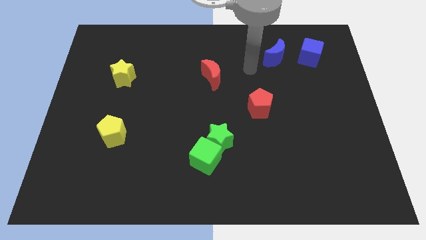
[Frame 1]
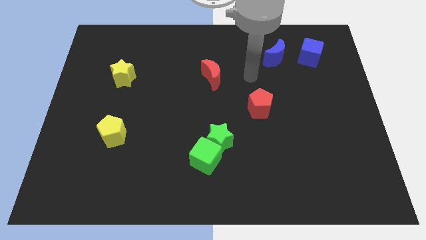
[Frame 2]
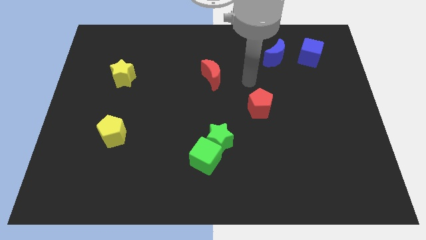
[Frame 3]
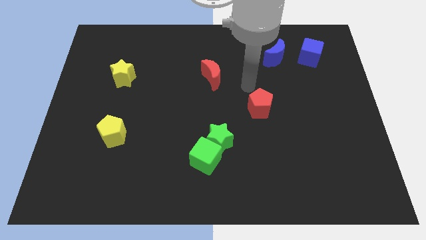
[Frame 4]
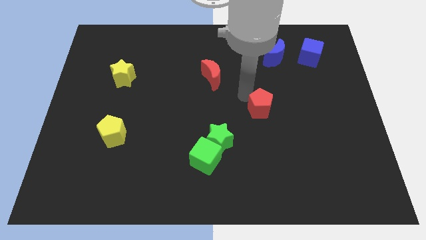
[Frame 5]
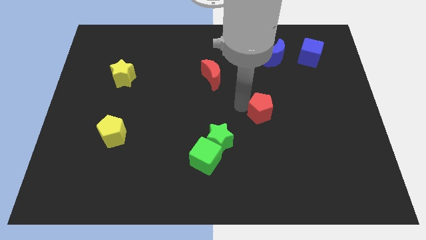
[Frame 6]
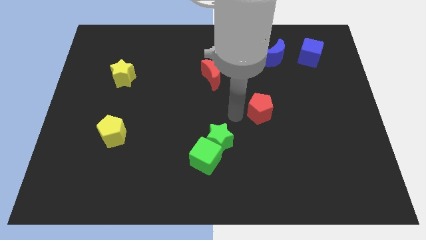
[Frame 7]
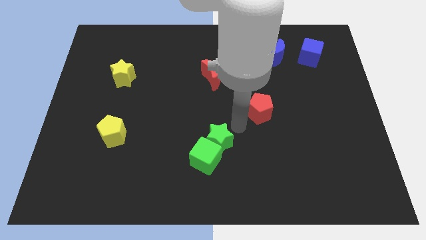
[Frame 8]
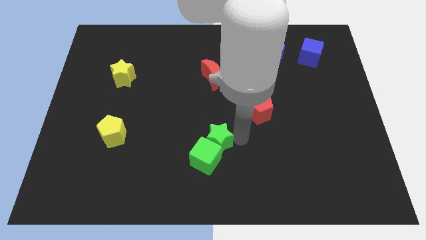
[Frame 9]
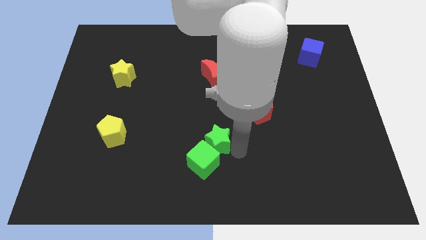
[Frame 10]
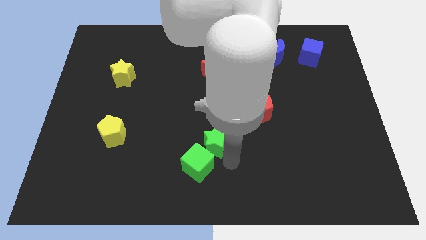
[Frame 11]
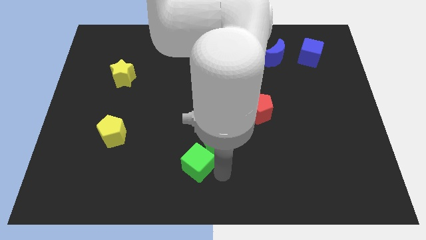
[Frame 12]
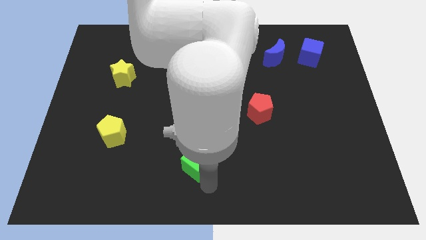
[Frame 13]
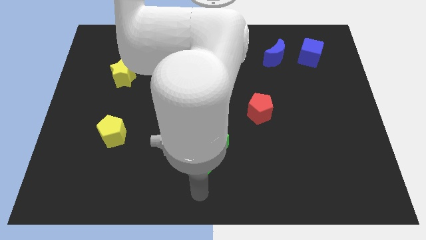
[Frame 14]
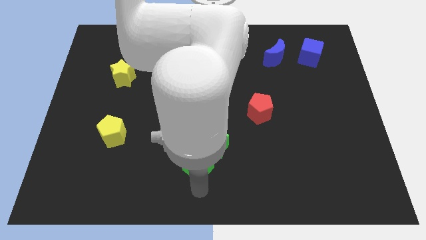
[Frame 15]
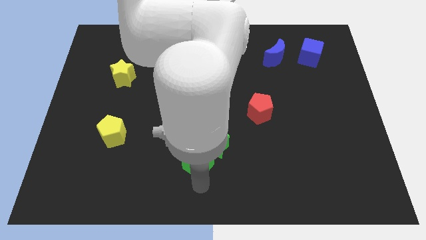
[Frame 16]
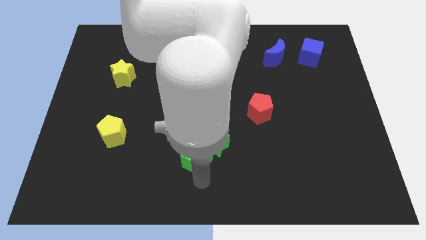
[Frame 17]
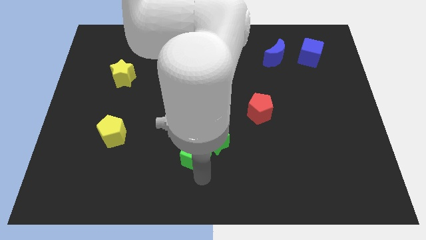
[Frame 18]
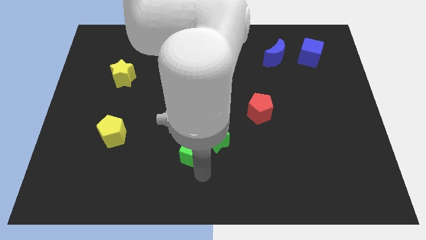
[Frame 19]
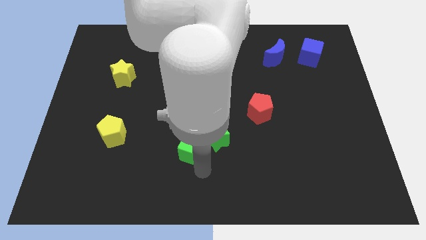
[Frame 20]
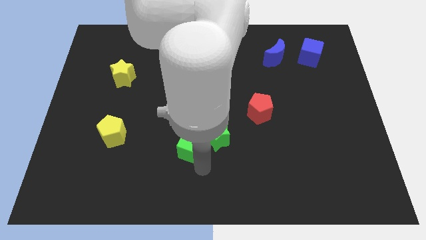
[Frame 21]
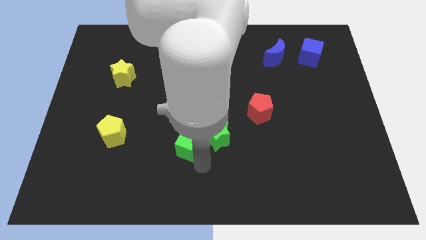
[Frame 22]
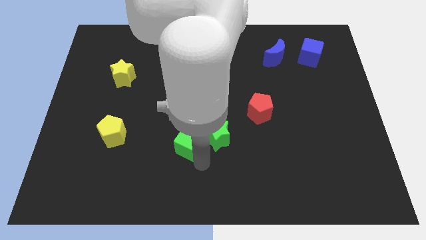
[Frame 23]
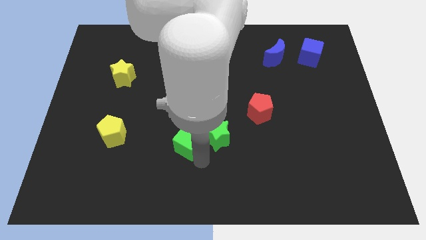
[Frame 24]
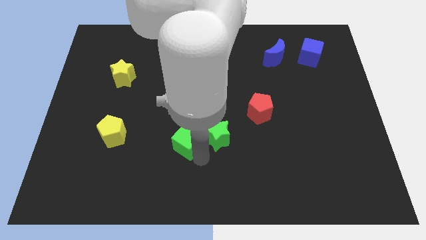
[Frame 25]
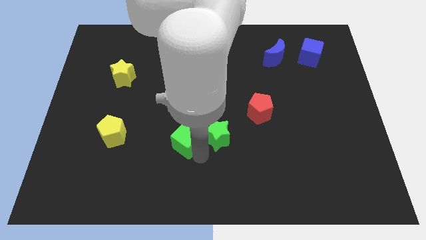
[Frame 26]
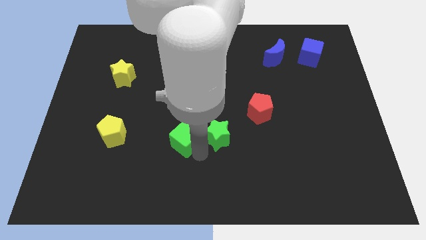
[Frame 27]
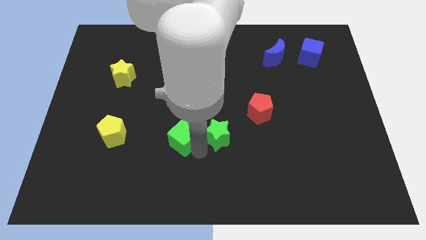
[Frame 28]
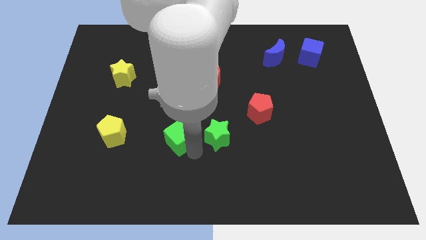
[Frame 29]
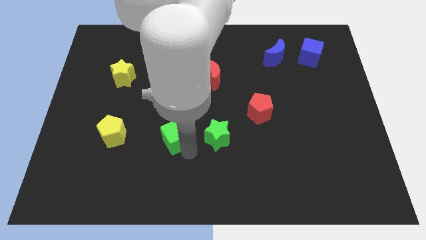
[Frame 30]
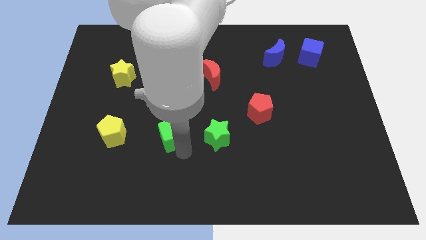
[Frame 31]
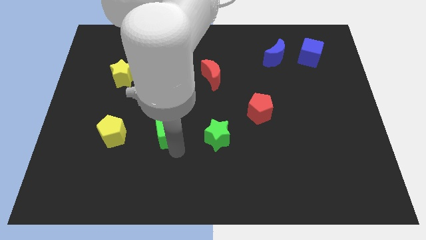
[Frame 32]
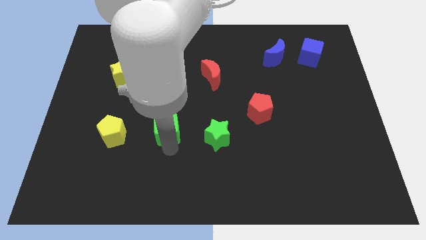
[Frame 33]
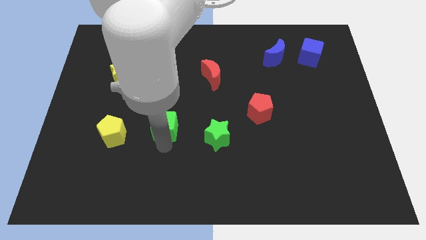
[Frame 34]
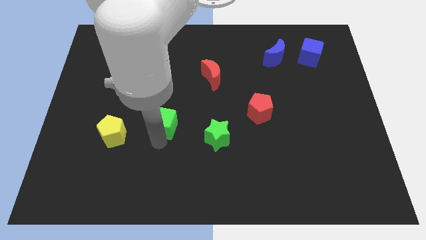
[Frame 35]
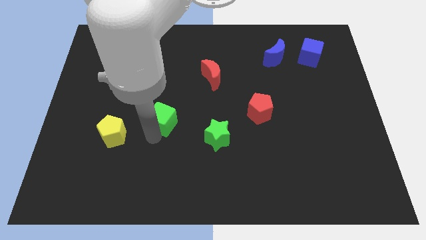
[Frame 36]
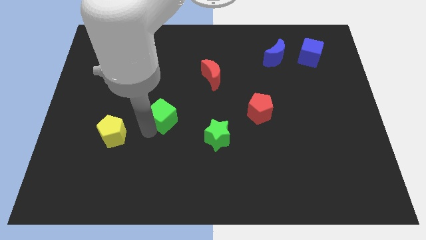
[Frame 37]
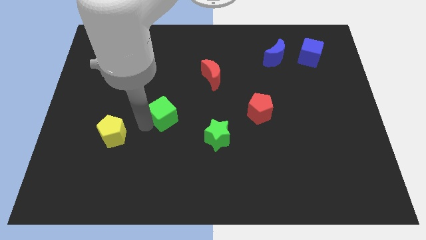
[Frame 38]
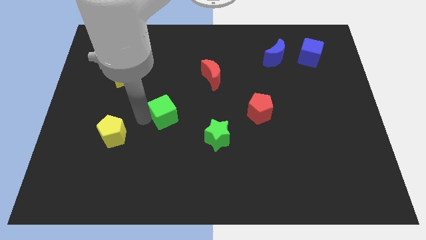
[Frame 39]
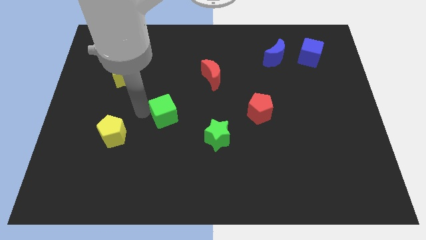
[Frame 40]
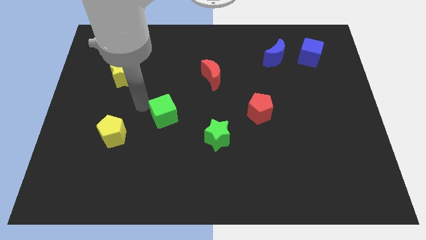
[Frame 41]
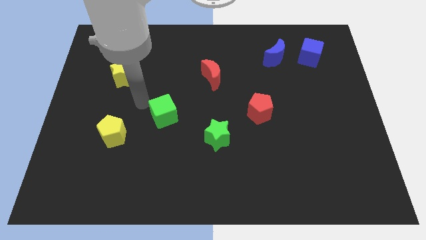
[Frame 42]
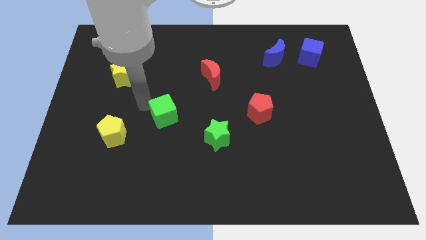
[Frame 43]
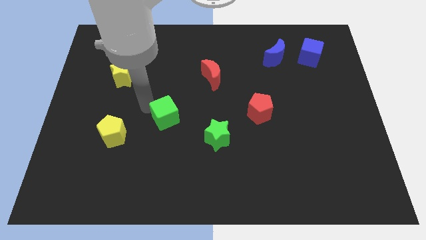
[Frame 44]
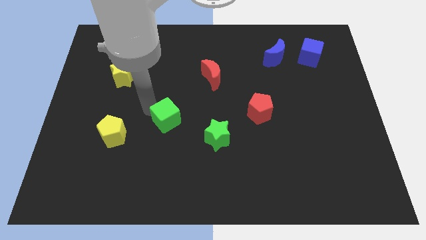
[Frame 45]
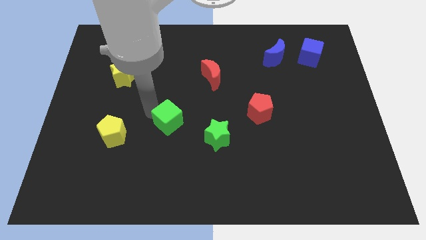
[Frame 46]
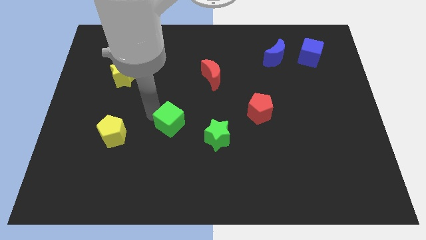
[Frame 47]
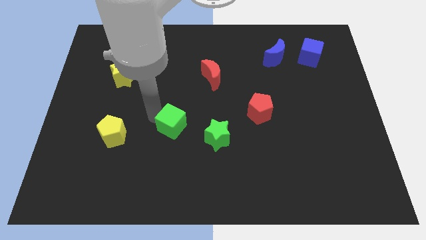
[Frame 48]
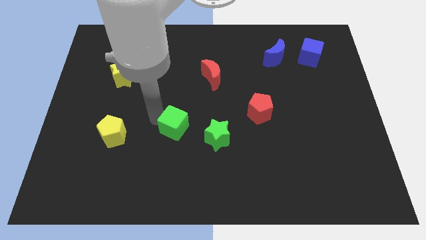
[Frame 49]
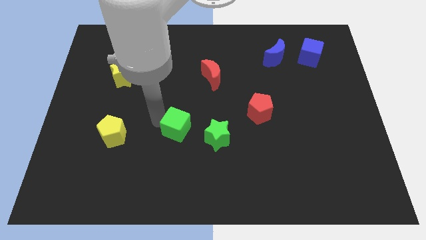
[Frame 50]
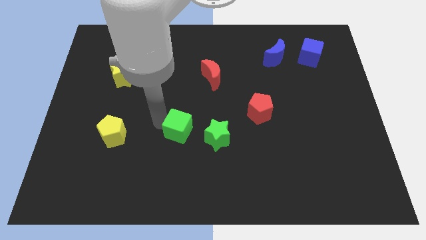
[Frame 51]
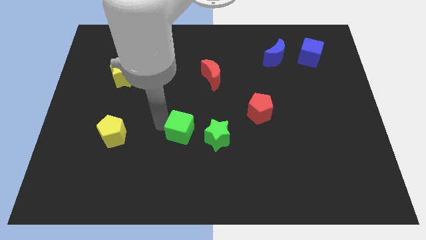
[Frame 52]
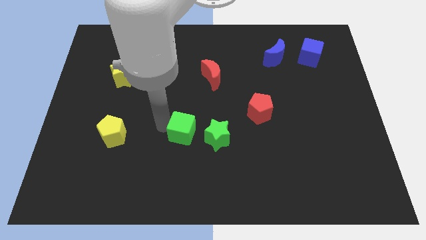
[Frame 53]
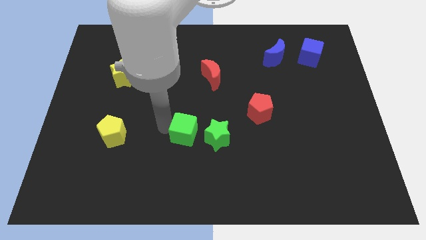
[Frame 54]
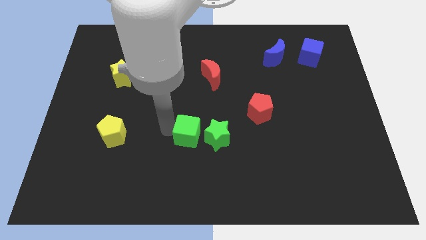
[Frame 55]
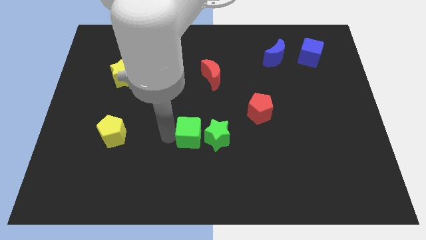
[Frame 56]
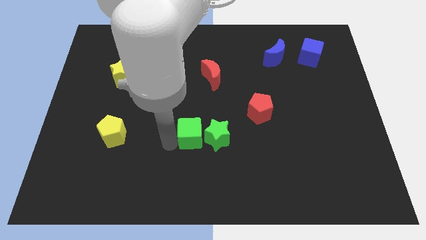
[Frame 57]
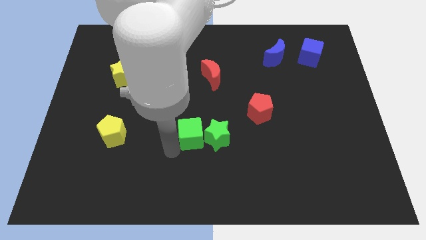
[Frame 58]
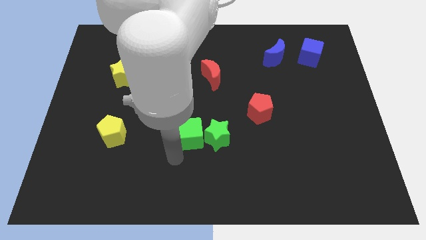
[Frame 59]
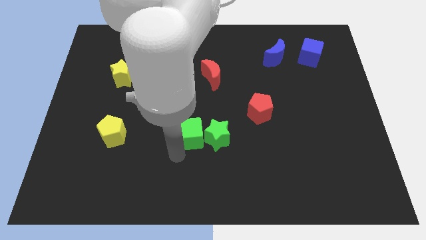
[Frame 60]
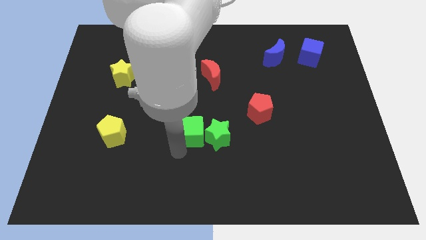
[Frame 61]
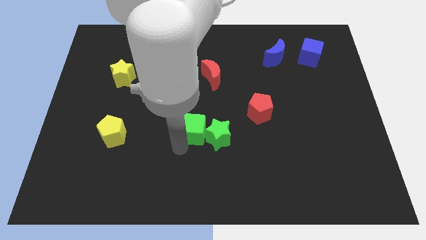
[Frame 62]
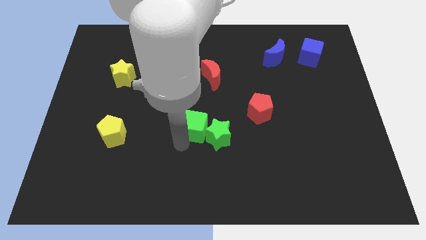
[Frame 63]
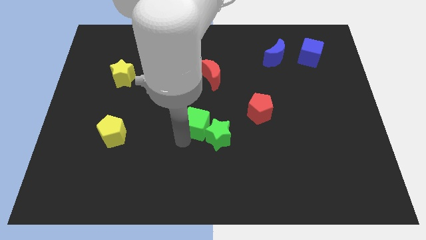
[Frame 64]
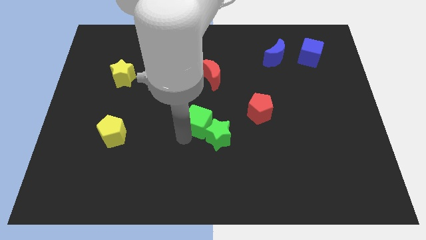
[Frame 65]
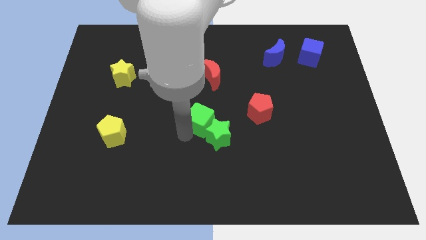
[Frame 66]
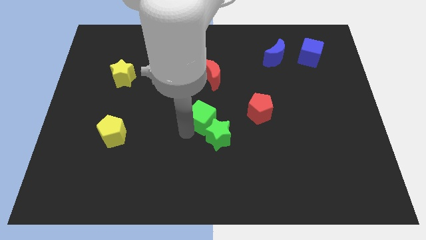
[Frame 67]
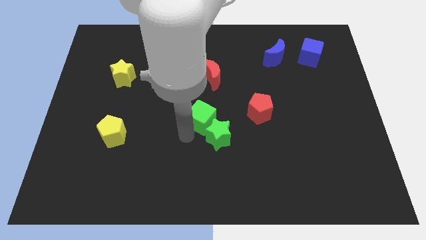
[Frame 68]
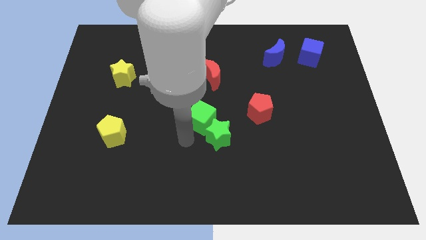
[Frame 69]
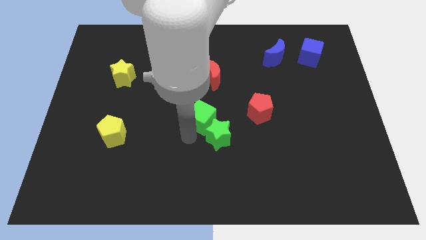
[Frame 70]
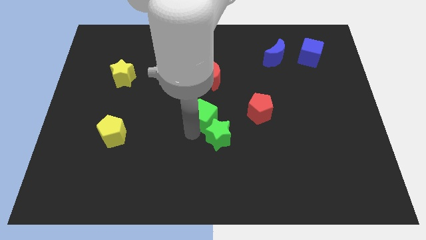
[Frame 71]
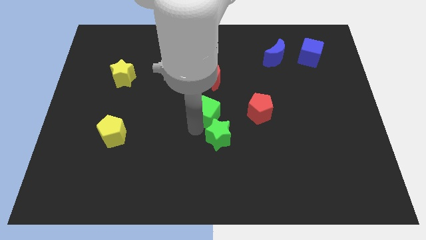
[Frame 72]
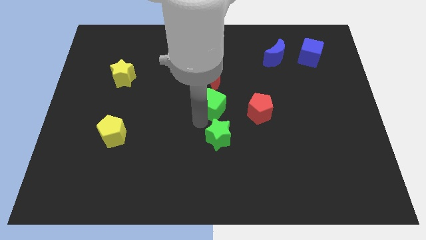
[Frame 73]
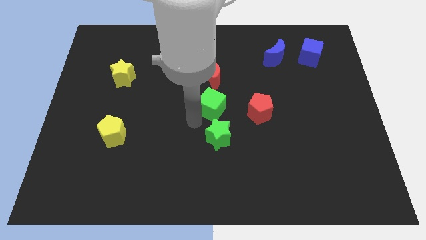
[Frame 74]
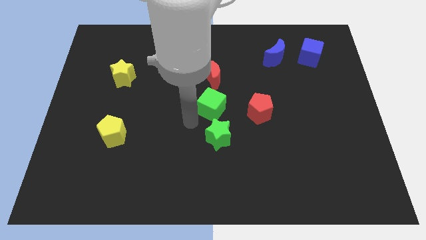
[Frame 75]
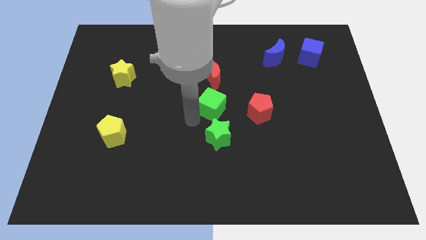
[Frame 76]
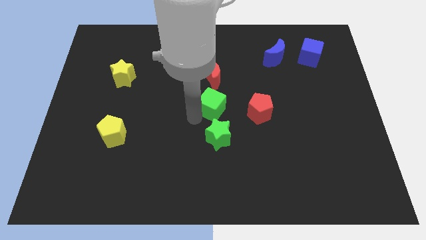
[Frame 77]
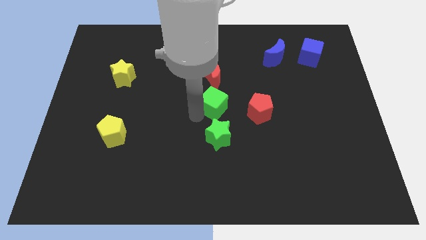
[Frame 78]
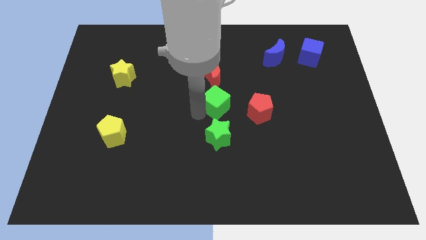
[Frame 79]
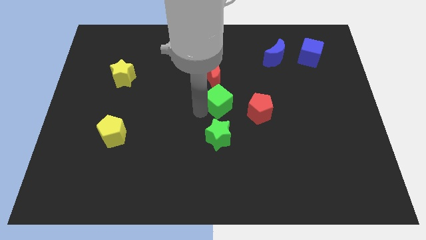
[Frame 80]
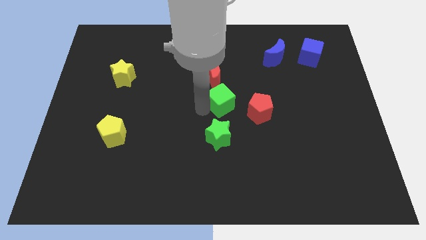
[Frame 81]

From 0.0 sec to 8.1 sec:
push the green cube to the bottom right side of the red moon
